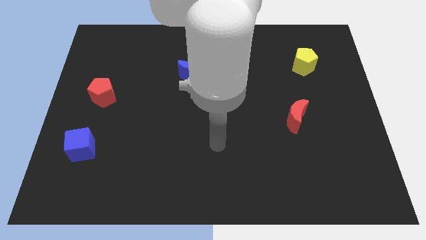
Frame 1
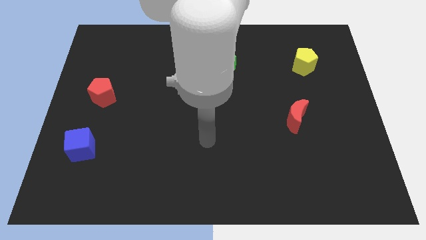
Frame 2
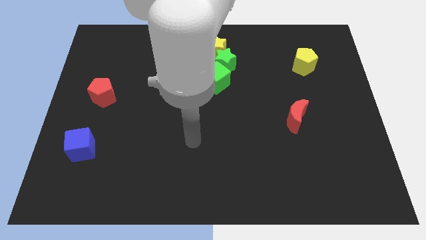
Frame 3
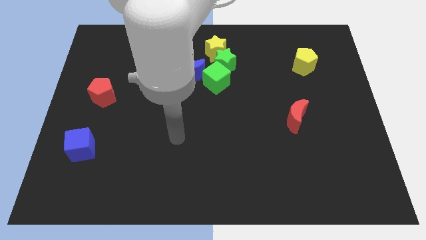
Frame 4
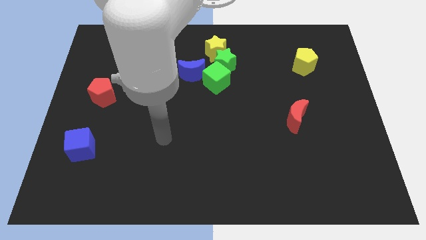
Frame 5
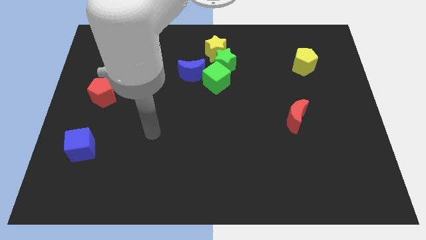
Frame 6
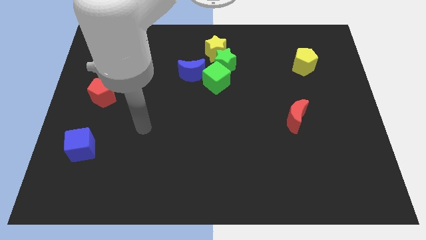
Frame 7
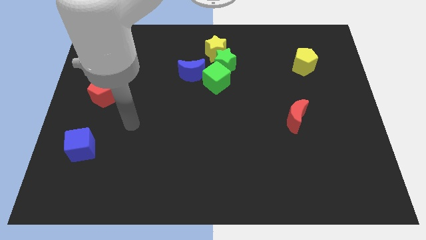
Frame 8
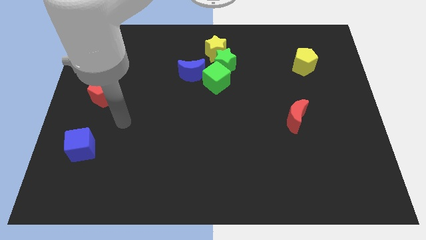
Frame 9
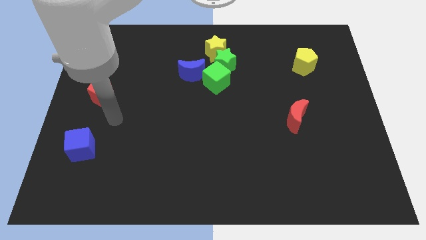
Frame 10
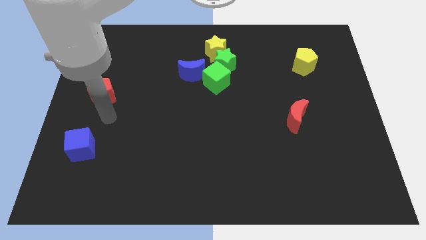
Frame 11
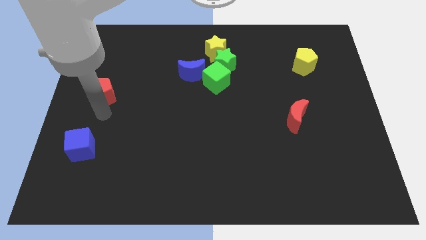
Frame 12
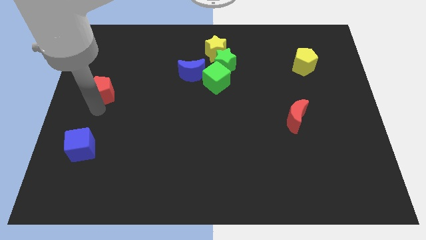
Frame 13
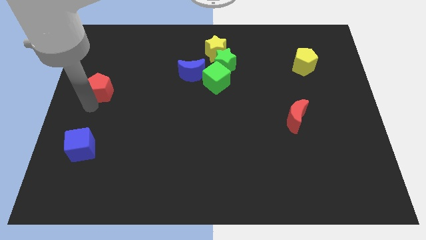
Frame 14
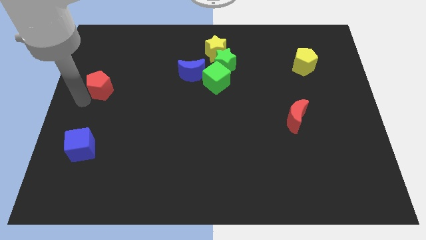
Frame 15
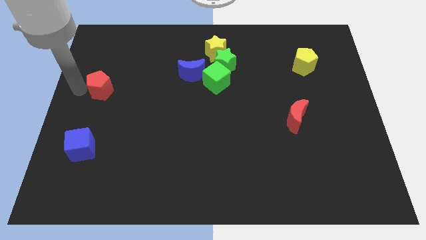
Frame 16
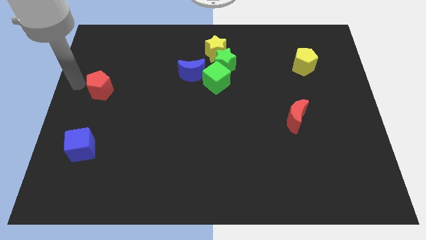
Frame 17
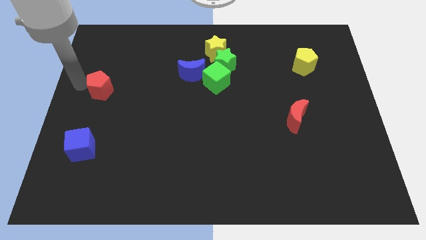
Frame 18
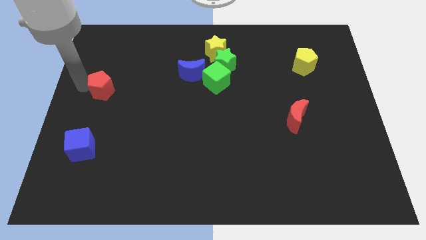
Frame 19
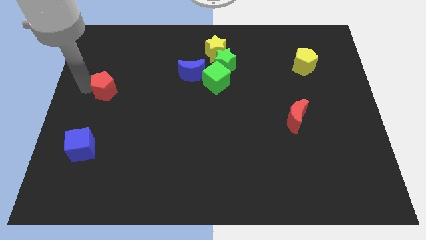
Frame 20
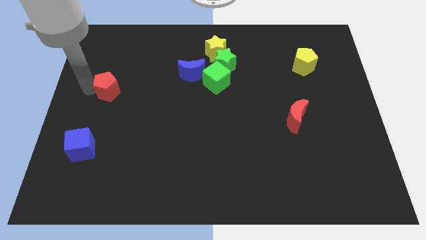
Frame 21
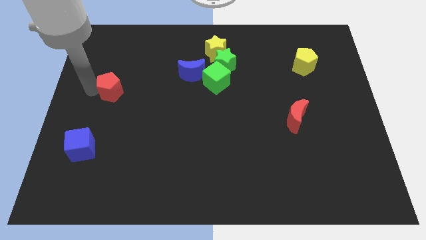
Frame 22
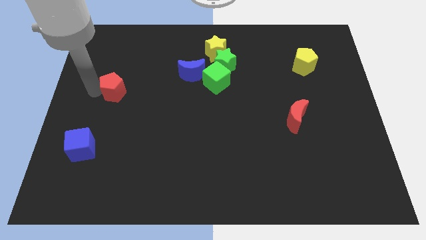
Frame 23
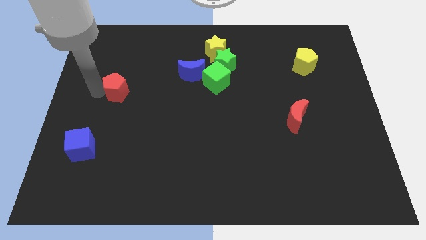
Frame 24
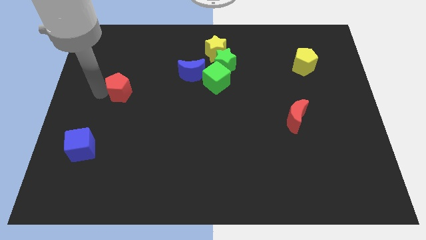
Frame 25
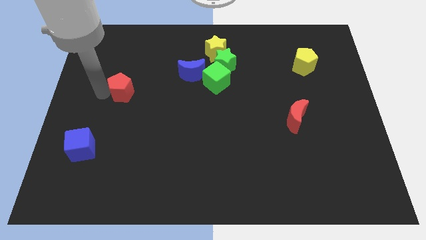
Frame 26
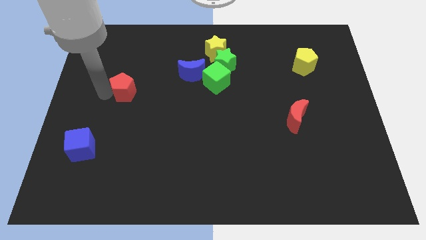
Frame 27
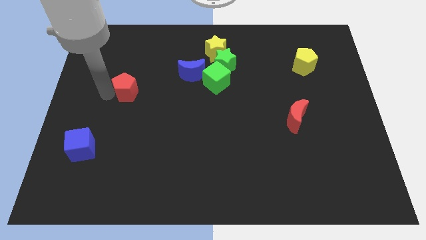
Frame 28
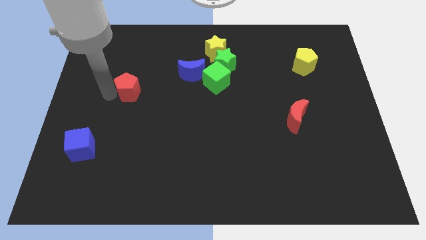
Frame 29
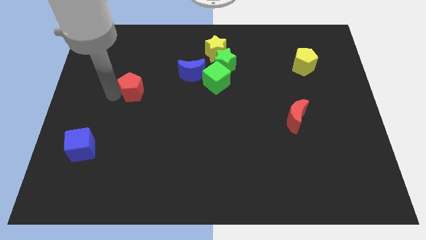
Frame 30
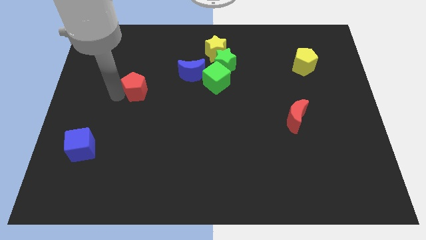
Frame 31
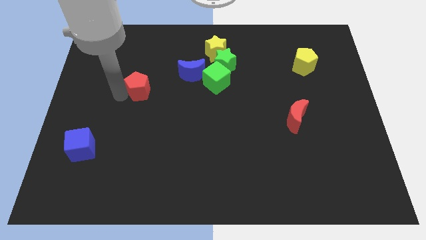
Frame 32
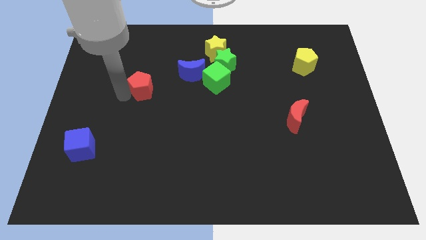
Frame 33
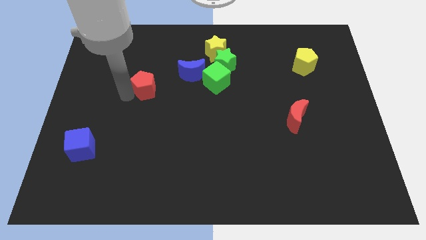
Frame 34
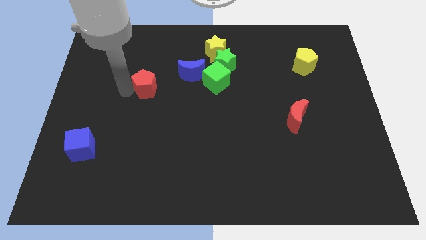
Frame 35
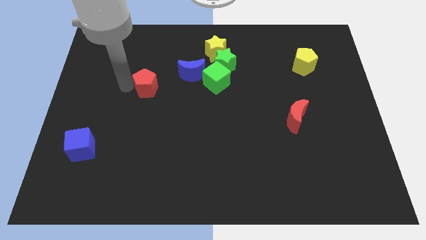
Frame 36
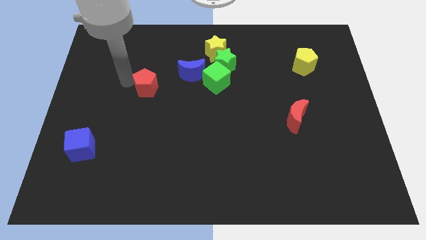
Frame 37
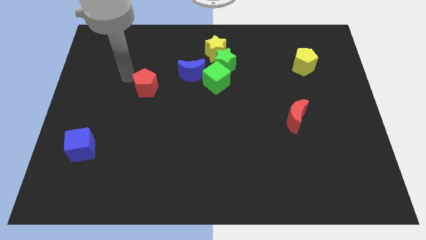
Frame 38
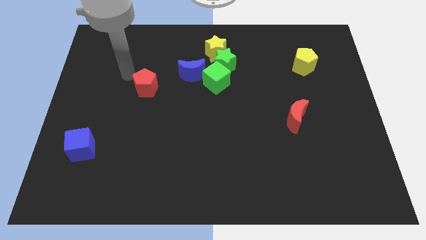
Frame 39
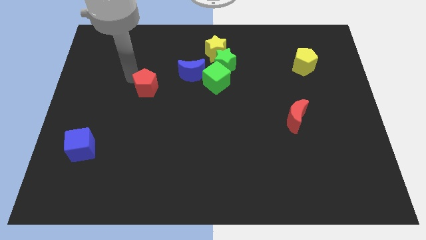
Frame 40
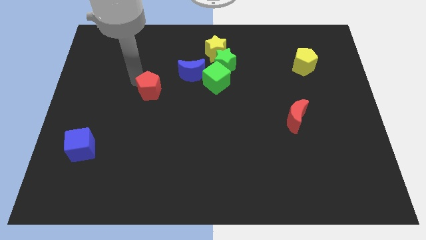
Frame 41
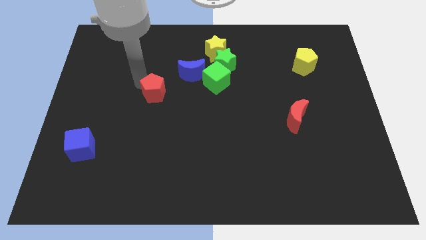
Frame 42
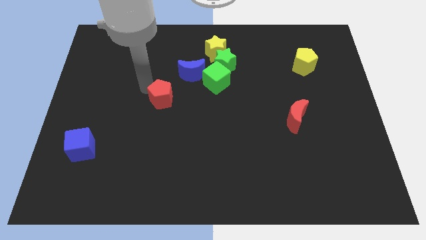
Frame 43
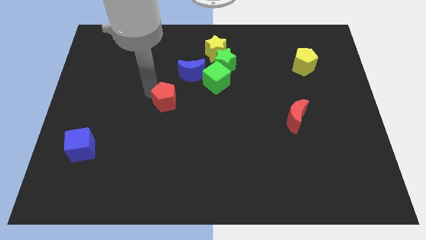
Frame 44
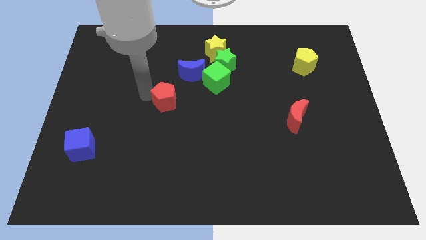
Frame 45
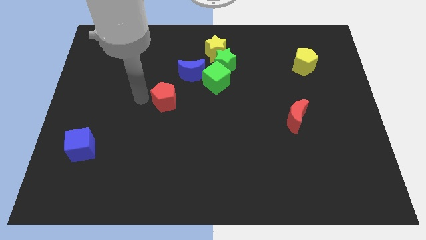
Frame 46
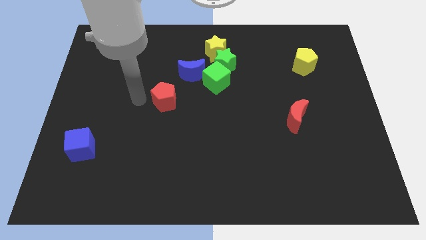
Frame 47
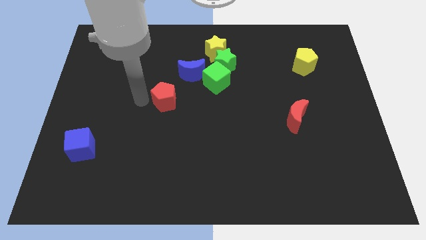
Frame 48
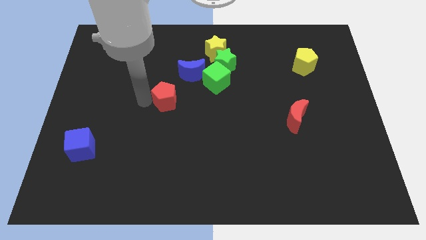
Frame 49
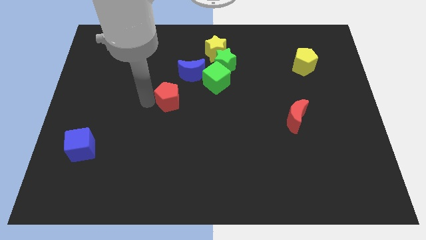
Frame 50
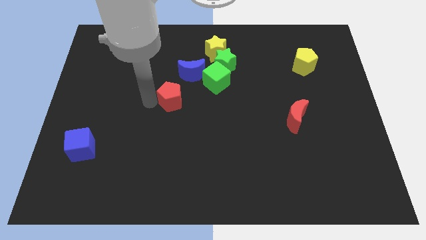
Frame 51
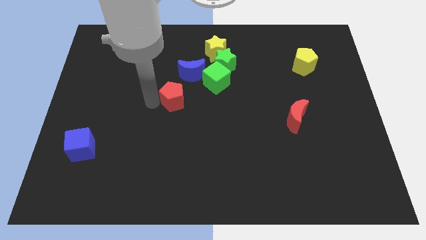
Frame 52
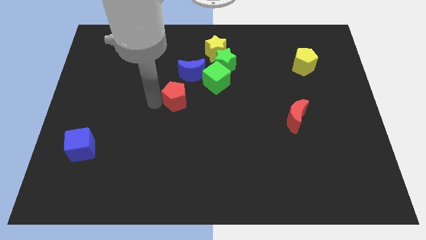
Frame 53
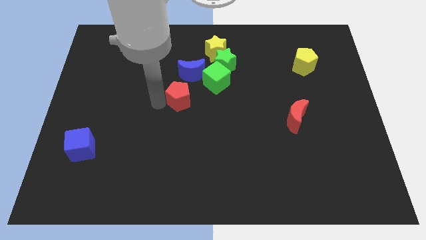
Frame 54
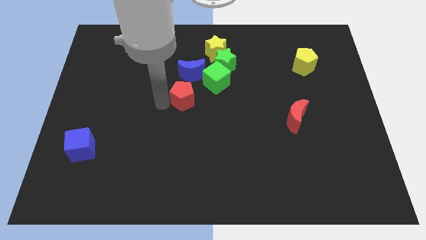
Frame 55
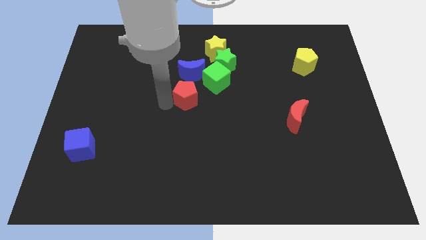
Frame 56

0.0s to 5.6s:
move the red pentagon to the right

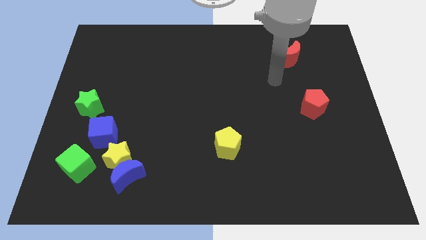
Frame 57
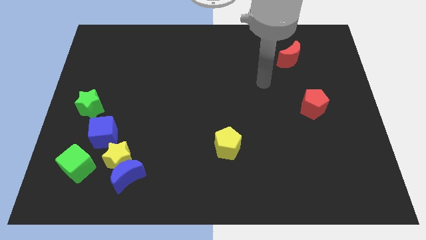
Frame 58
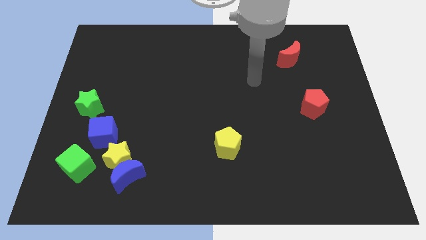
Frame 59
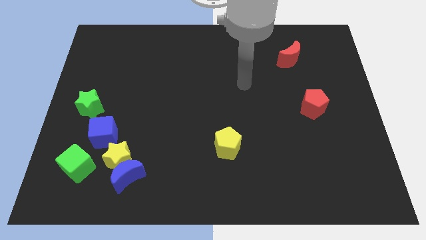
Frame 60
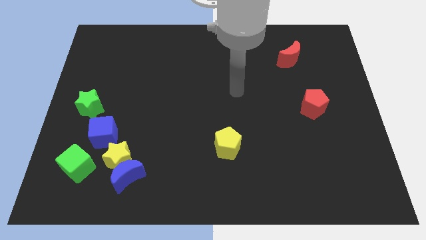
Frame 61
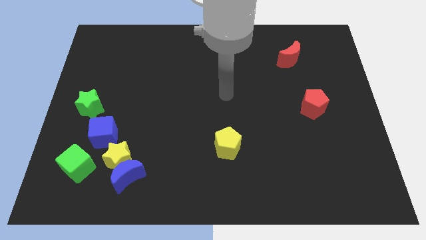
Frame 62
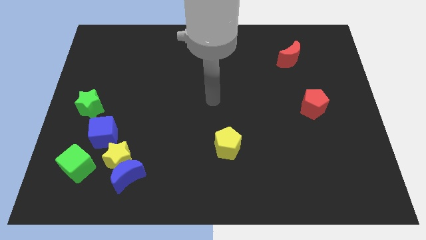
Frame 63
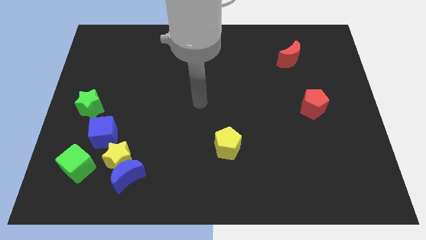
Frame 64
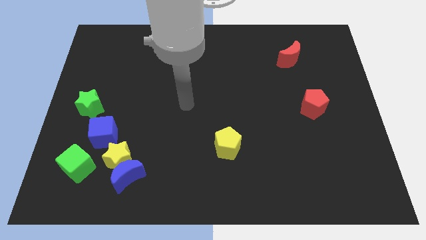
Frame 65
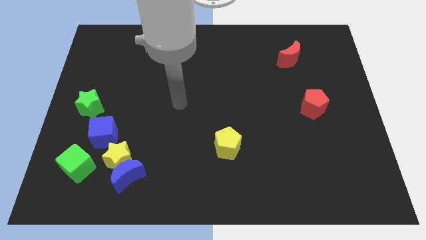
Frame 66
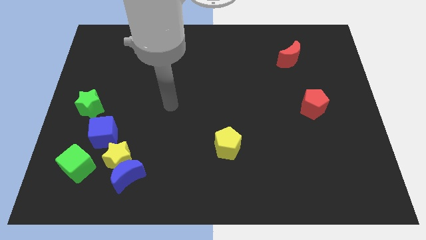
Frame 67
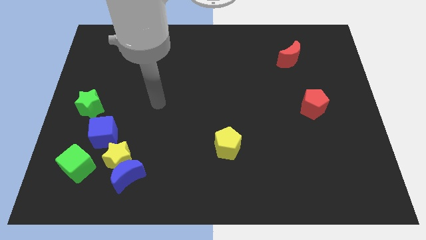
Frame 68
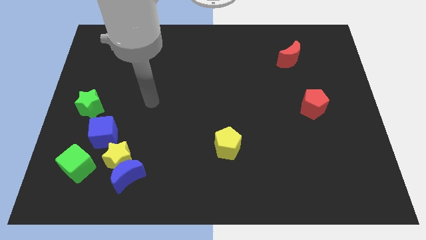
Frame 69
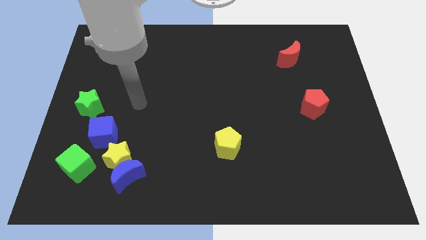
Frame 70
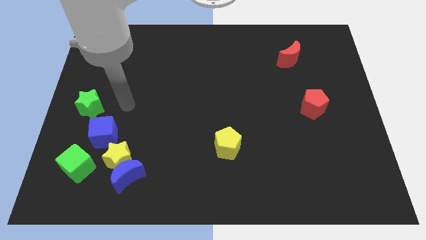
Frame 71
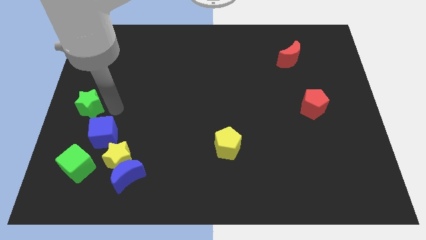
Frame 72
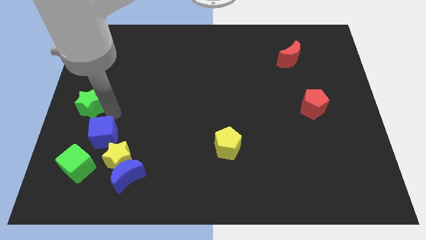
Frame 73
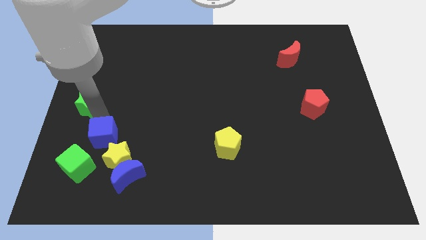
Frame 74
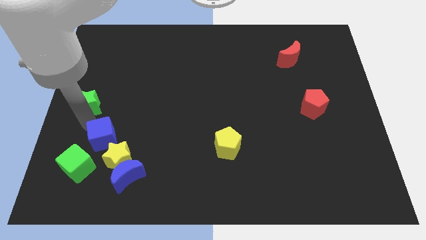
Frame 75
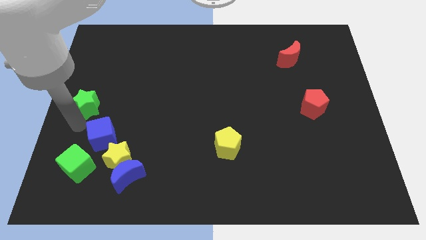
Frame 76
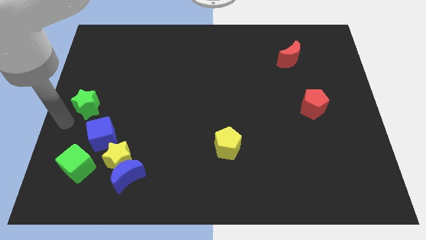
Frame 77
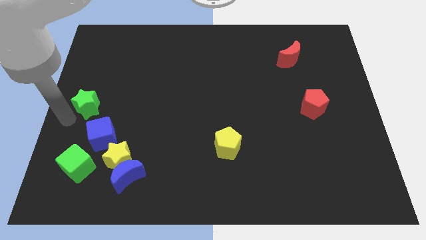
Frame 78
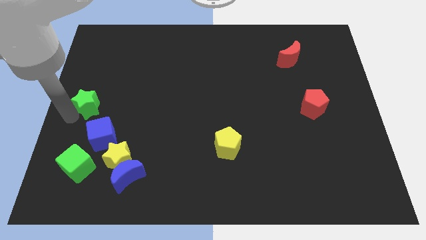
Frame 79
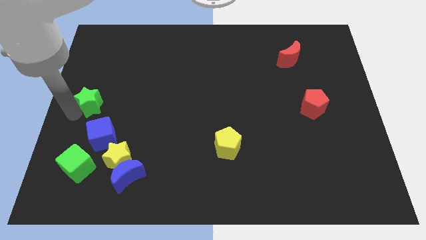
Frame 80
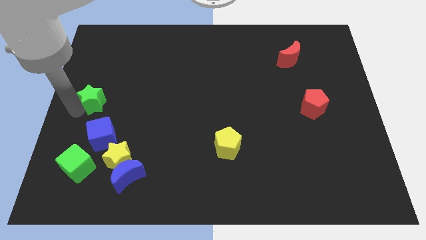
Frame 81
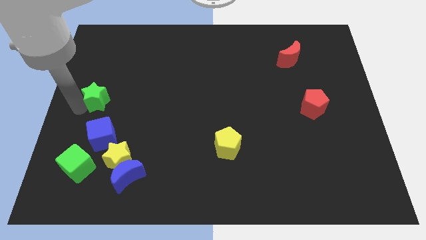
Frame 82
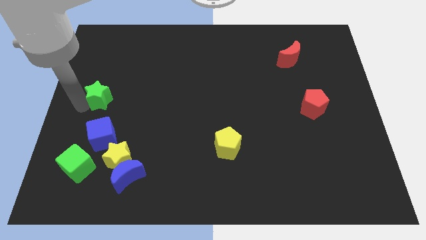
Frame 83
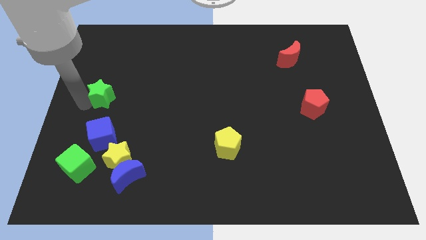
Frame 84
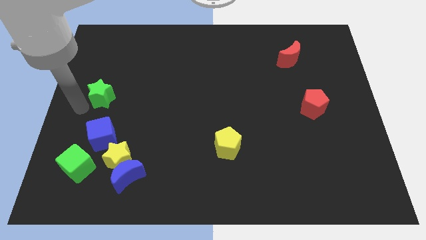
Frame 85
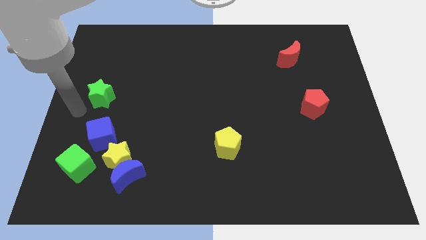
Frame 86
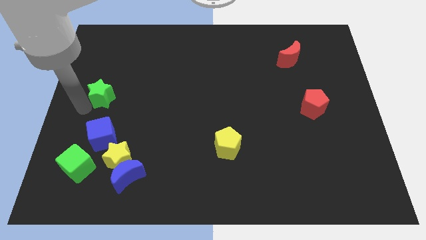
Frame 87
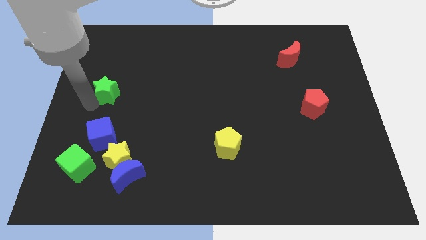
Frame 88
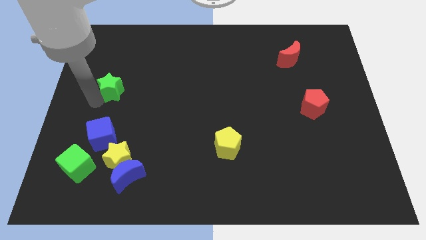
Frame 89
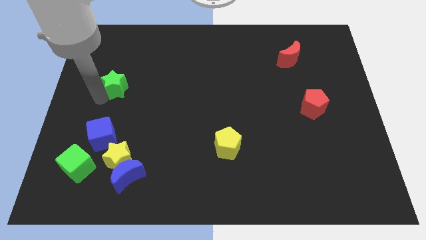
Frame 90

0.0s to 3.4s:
slightly slide the green star up and right diagonally
